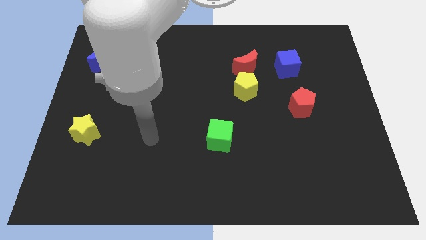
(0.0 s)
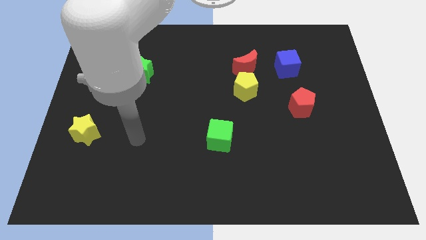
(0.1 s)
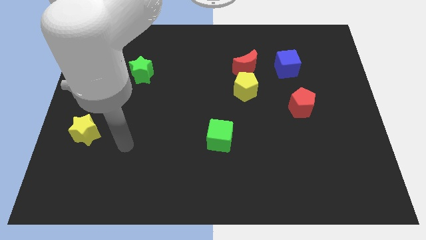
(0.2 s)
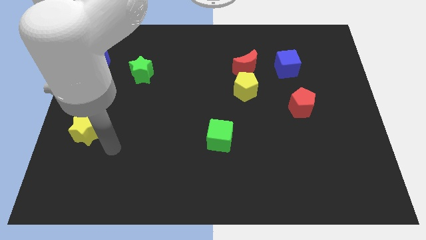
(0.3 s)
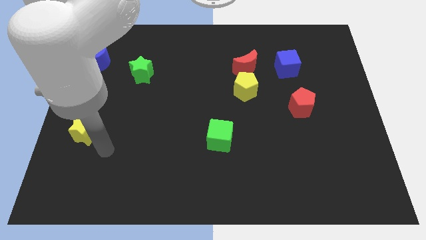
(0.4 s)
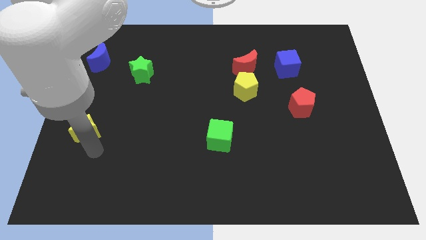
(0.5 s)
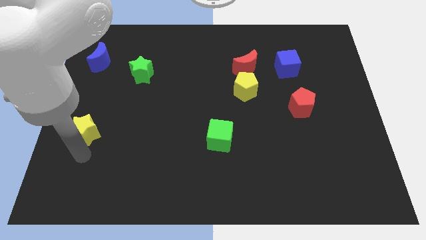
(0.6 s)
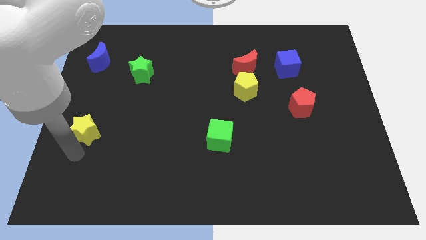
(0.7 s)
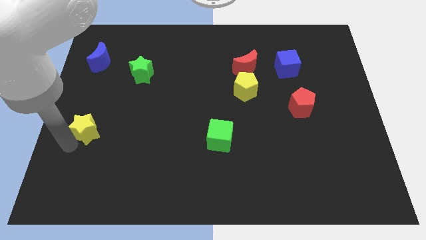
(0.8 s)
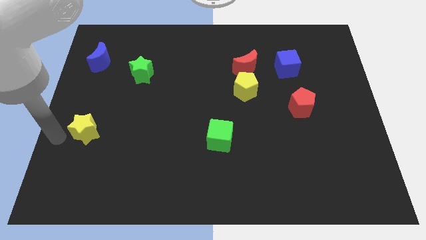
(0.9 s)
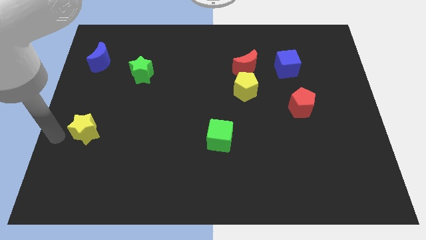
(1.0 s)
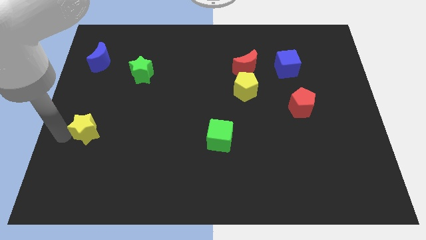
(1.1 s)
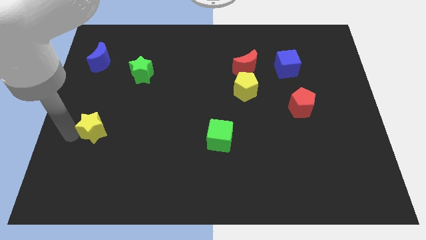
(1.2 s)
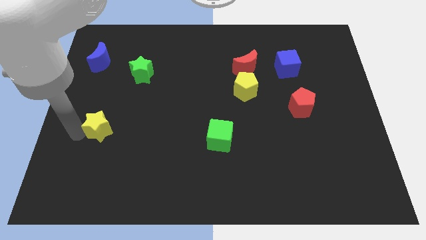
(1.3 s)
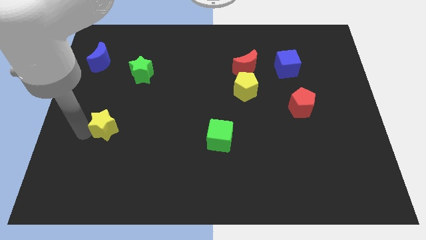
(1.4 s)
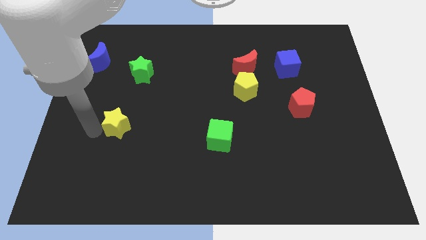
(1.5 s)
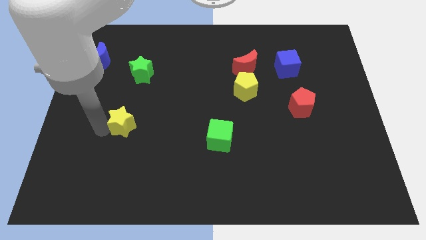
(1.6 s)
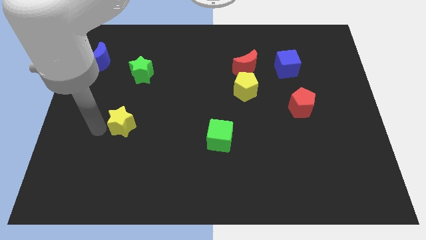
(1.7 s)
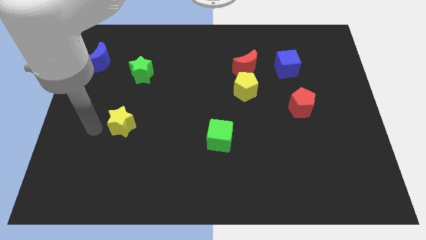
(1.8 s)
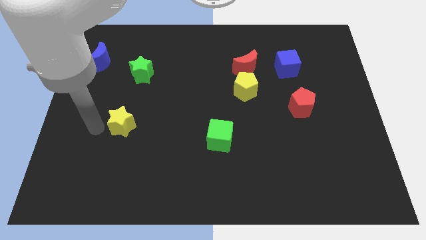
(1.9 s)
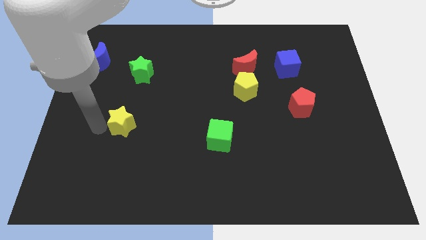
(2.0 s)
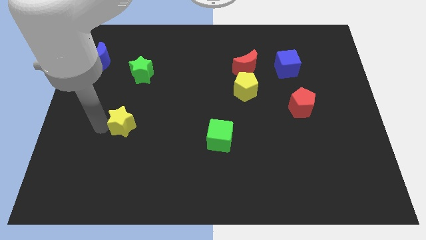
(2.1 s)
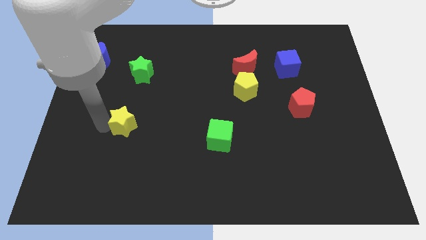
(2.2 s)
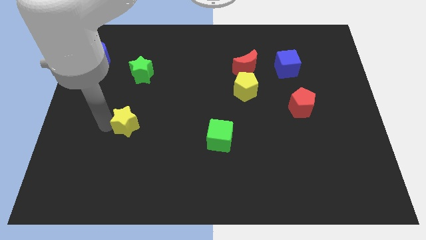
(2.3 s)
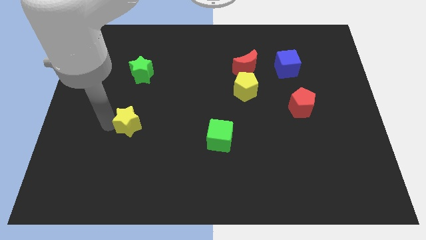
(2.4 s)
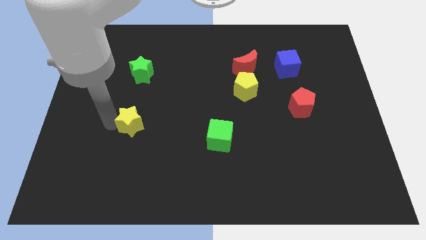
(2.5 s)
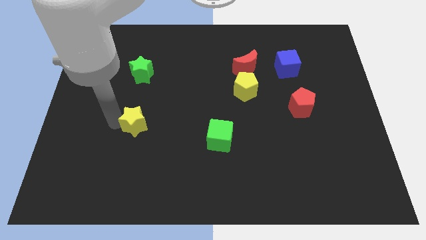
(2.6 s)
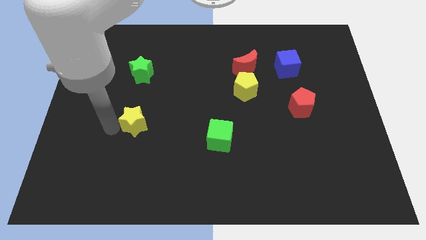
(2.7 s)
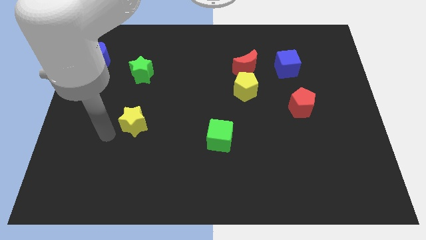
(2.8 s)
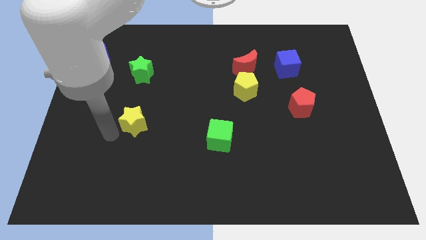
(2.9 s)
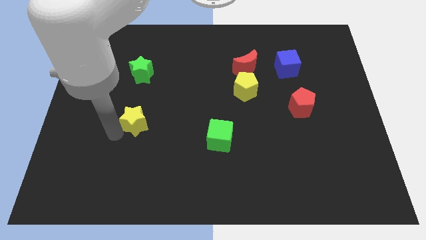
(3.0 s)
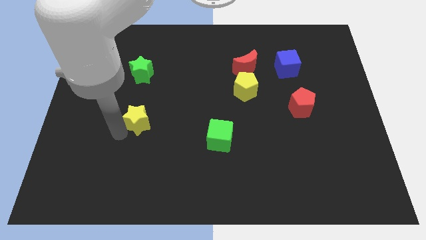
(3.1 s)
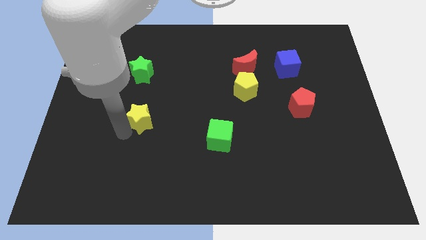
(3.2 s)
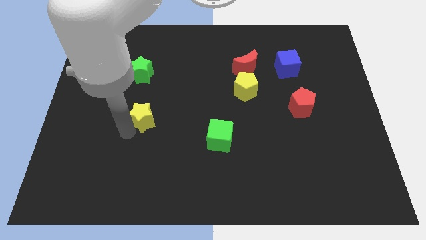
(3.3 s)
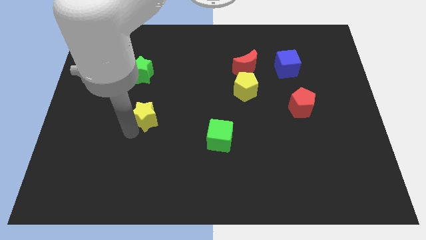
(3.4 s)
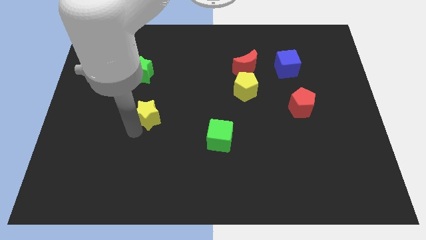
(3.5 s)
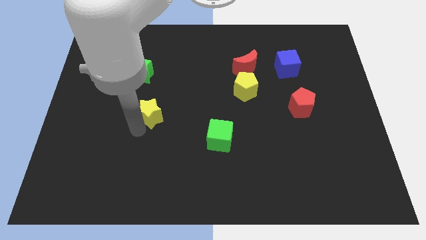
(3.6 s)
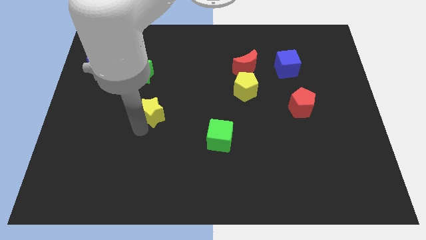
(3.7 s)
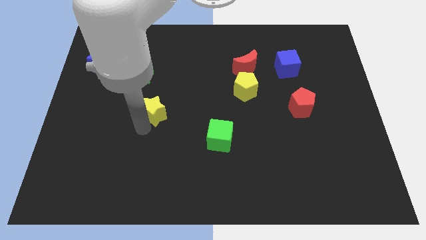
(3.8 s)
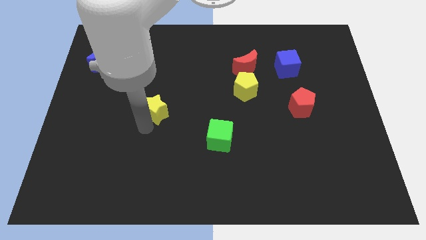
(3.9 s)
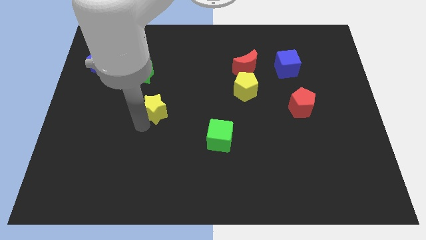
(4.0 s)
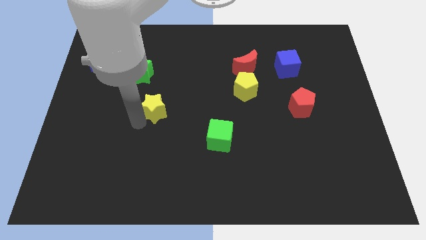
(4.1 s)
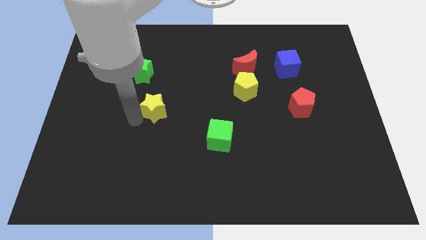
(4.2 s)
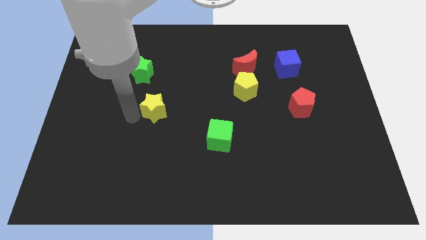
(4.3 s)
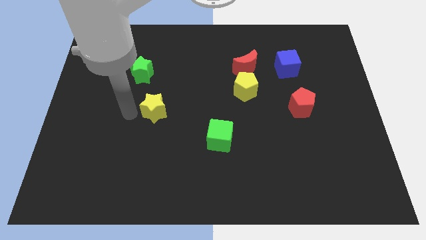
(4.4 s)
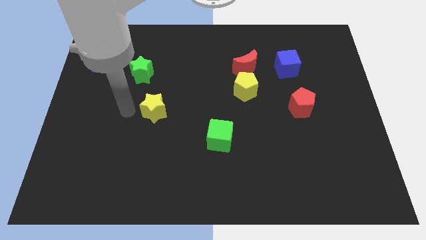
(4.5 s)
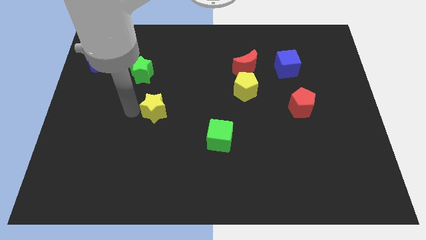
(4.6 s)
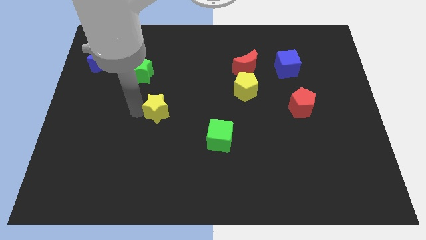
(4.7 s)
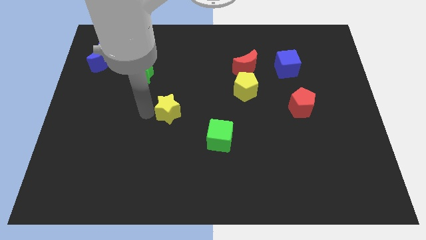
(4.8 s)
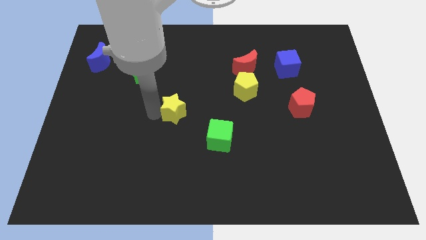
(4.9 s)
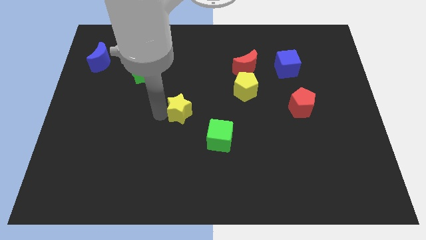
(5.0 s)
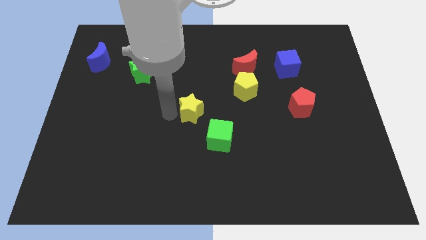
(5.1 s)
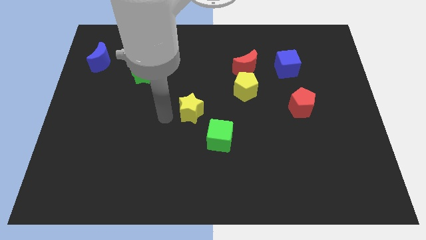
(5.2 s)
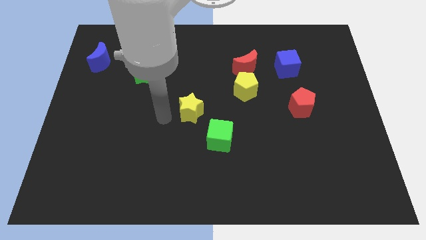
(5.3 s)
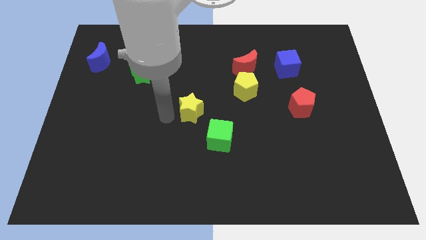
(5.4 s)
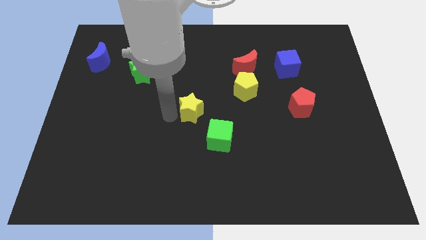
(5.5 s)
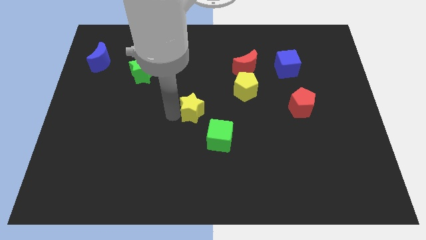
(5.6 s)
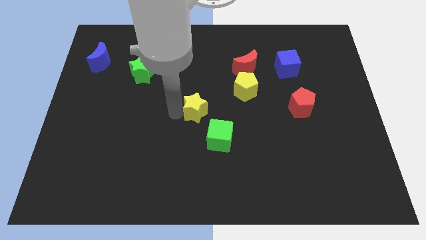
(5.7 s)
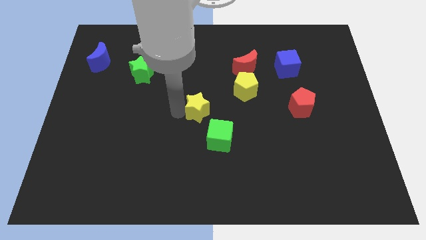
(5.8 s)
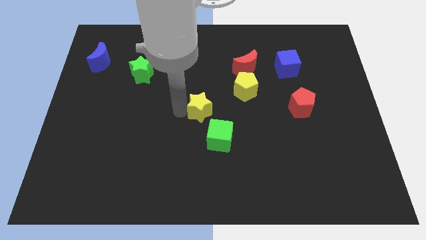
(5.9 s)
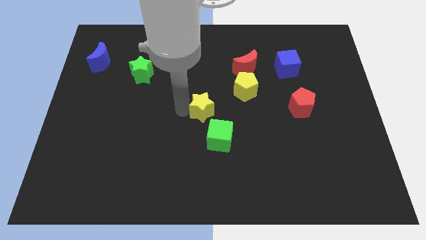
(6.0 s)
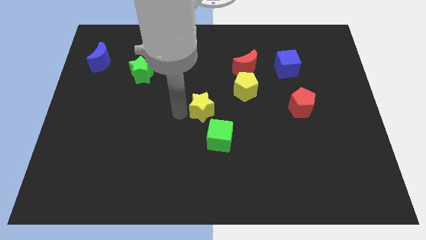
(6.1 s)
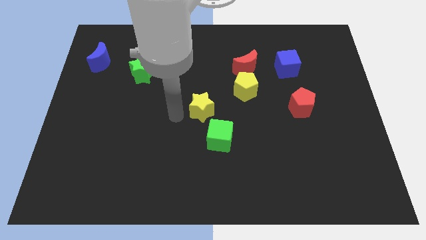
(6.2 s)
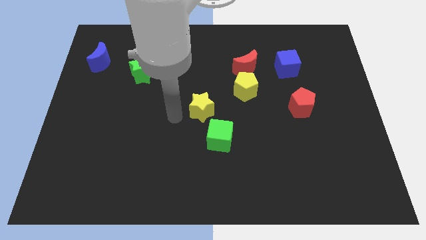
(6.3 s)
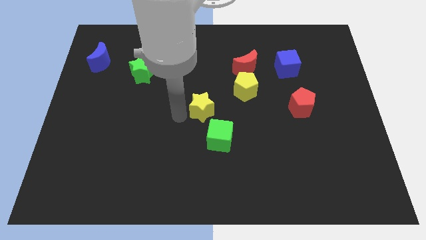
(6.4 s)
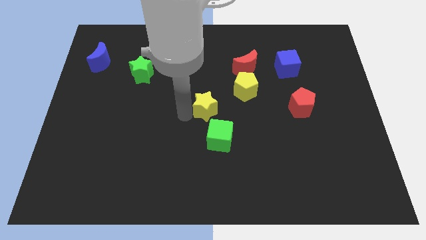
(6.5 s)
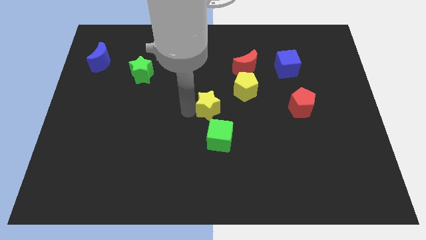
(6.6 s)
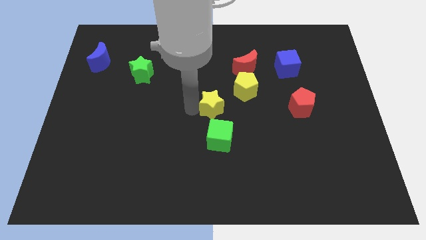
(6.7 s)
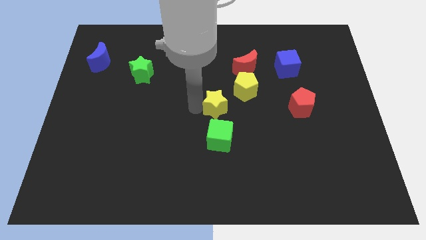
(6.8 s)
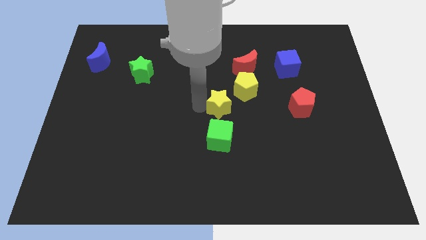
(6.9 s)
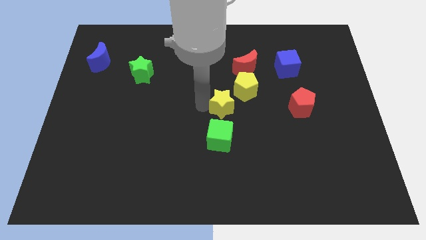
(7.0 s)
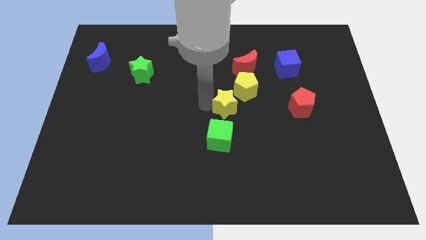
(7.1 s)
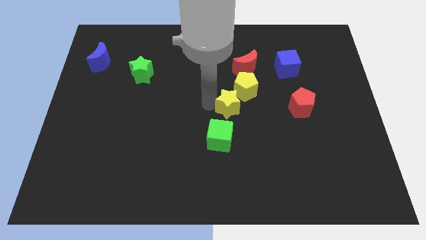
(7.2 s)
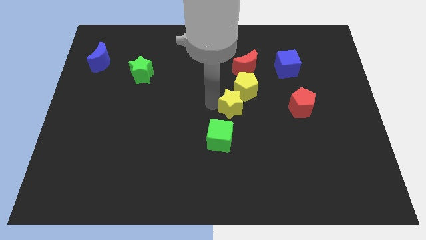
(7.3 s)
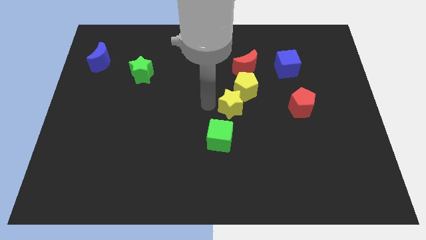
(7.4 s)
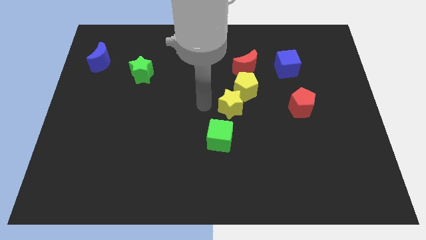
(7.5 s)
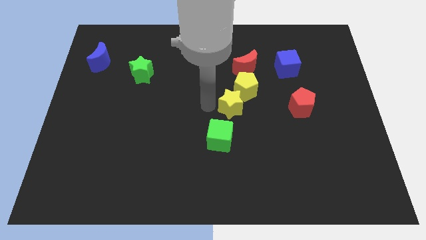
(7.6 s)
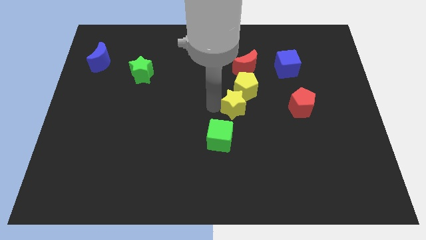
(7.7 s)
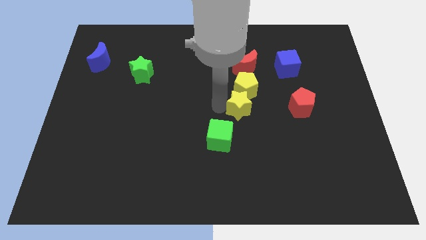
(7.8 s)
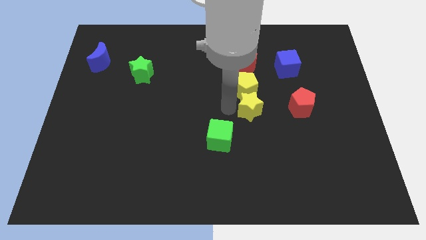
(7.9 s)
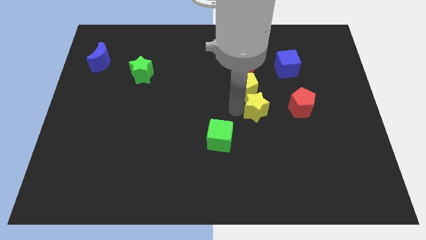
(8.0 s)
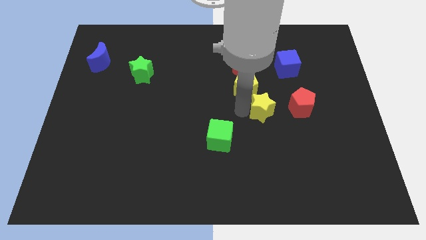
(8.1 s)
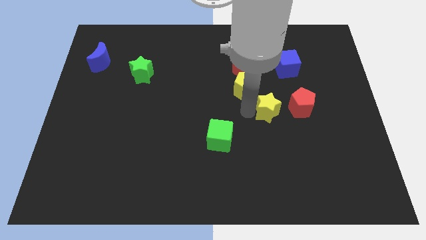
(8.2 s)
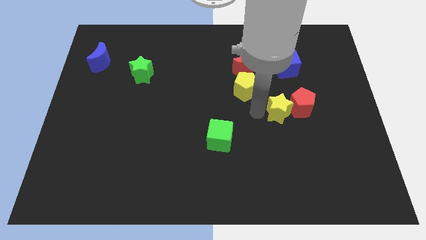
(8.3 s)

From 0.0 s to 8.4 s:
put the yellow star next to the red pentagon
